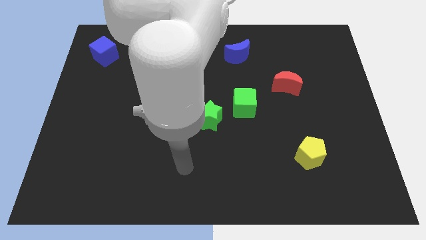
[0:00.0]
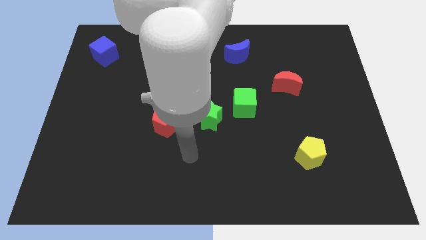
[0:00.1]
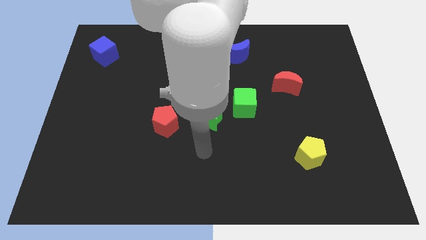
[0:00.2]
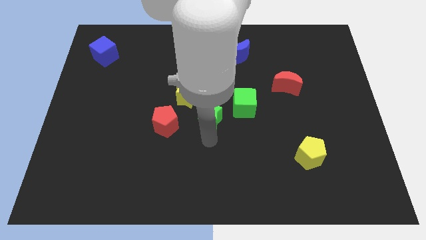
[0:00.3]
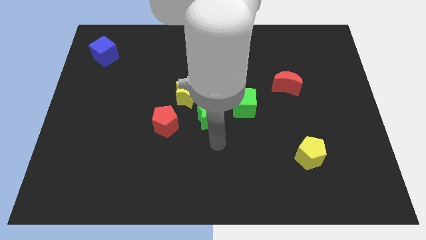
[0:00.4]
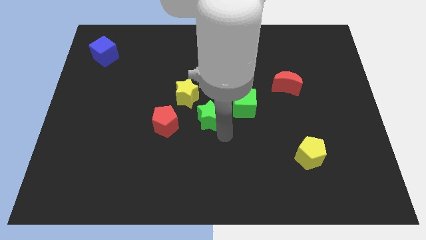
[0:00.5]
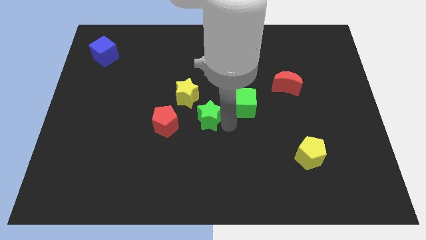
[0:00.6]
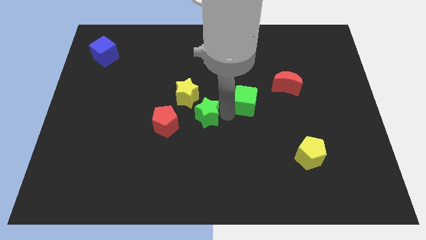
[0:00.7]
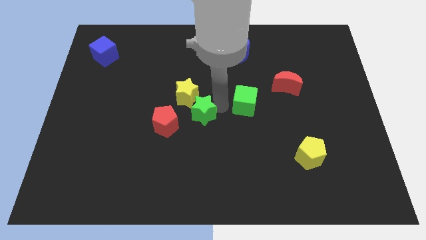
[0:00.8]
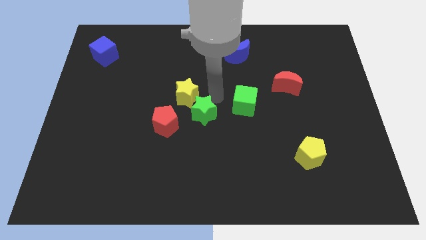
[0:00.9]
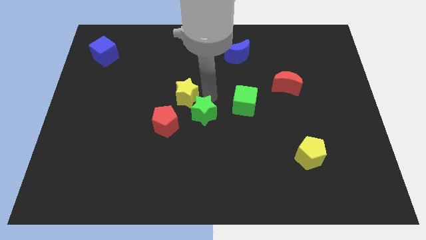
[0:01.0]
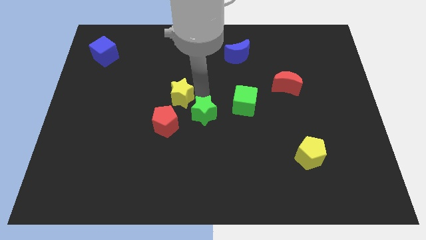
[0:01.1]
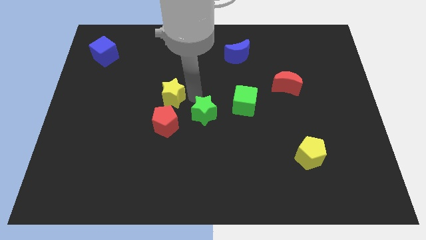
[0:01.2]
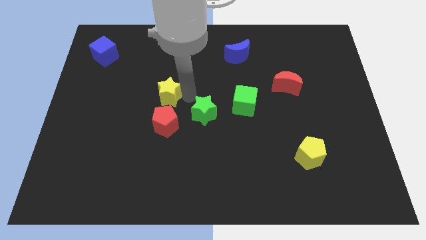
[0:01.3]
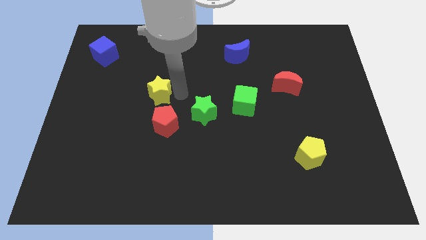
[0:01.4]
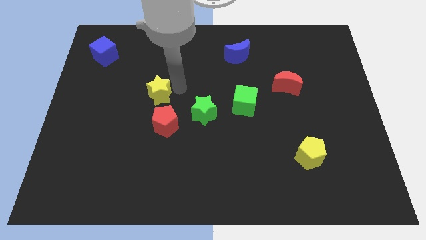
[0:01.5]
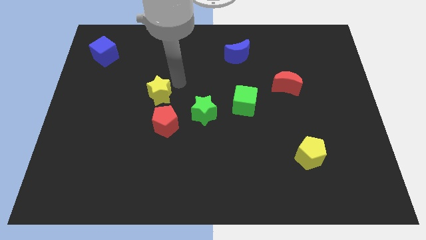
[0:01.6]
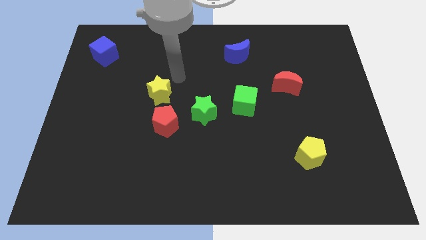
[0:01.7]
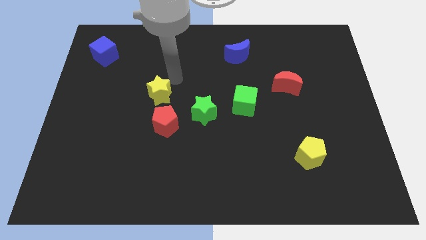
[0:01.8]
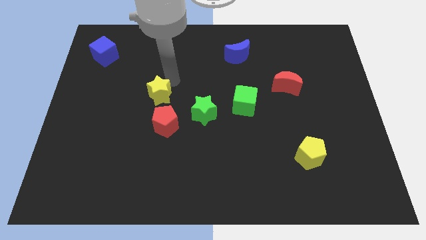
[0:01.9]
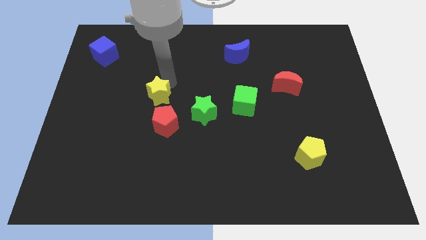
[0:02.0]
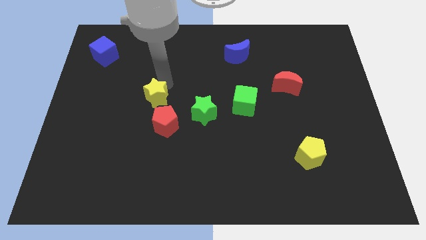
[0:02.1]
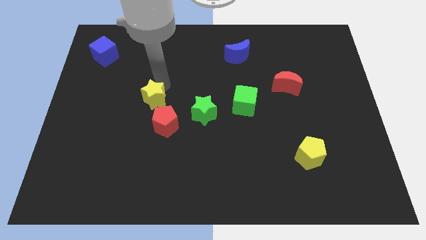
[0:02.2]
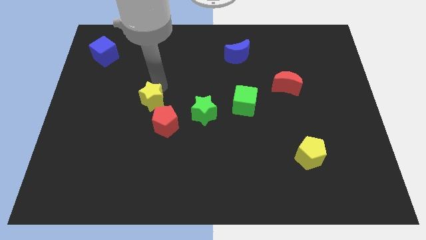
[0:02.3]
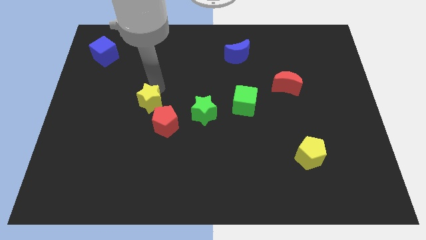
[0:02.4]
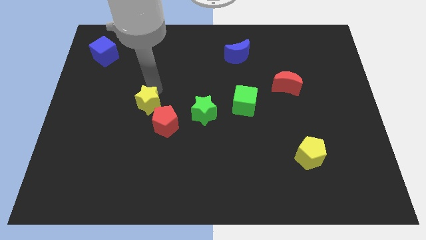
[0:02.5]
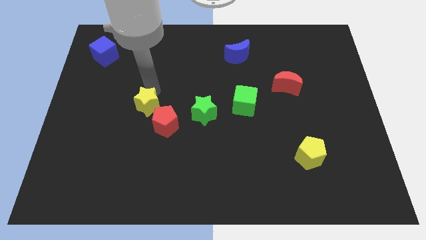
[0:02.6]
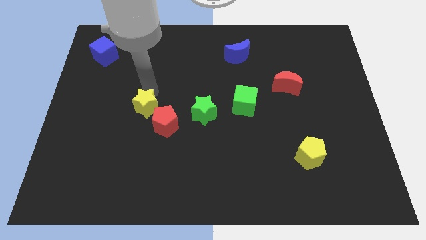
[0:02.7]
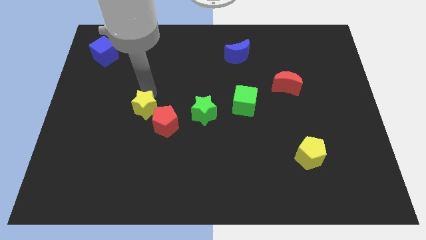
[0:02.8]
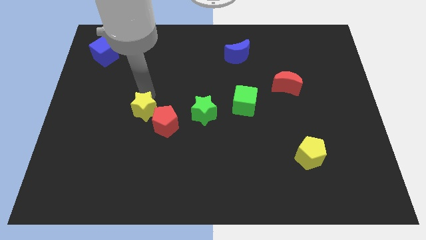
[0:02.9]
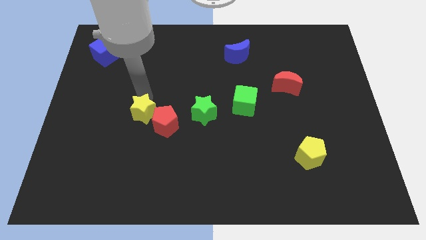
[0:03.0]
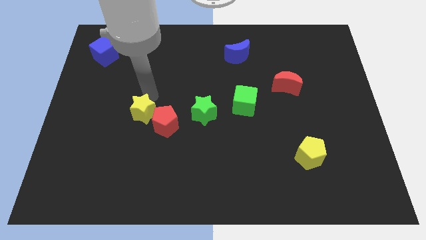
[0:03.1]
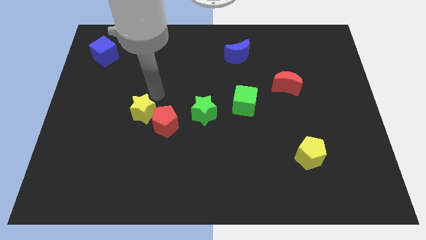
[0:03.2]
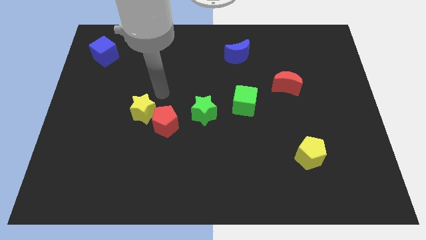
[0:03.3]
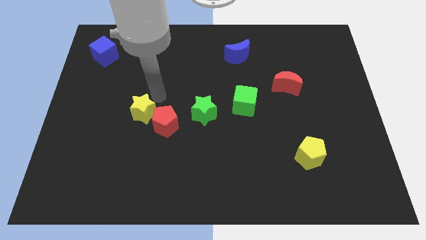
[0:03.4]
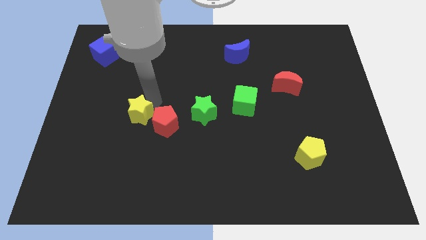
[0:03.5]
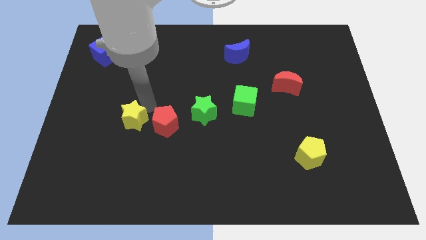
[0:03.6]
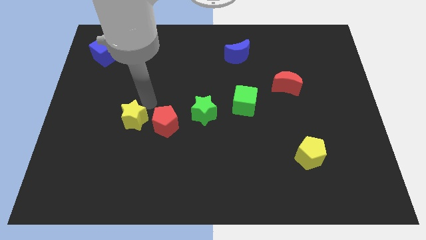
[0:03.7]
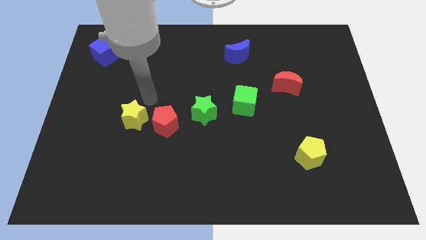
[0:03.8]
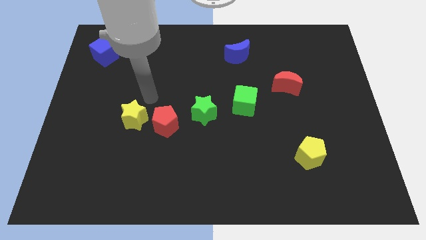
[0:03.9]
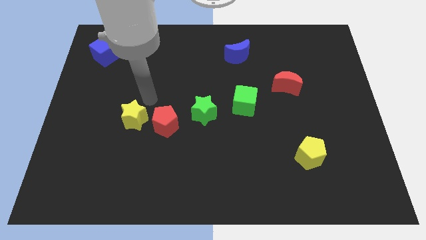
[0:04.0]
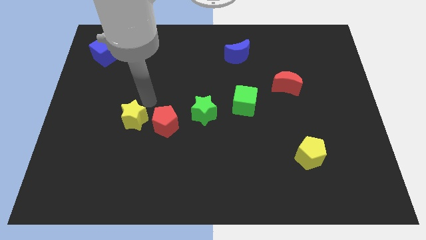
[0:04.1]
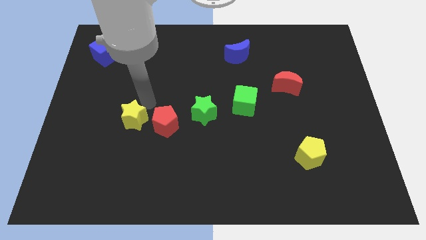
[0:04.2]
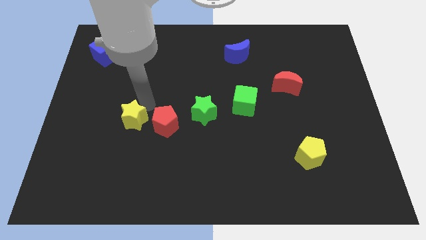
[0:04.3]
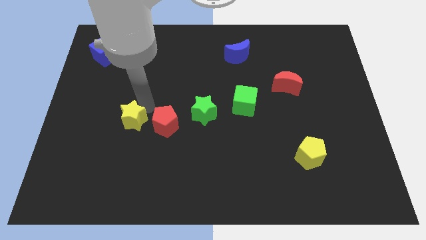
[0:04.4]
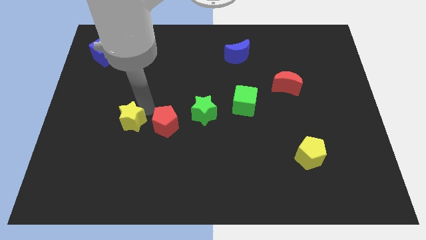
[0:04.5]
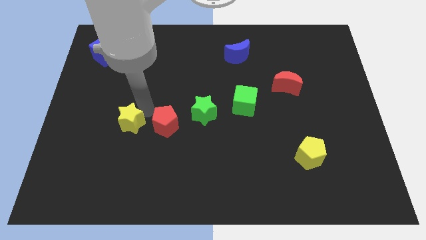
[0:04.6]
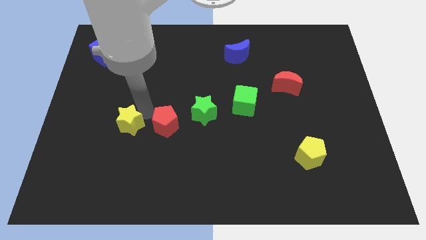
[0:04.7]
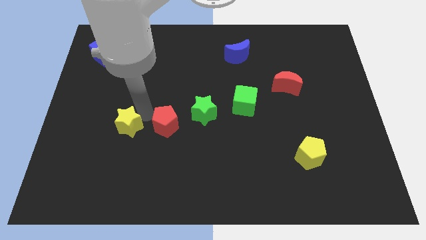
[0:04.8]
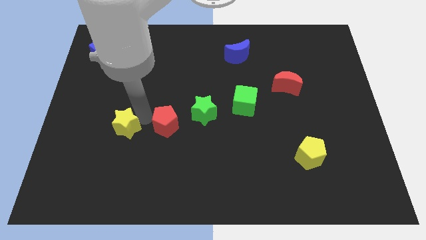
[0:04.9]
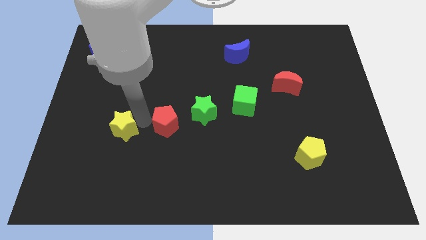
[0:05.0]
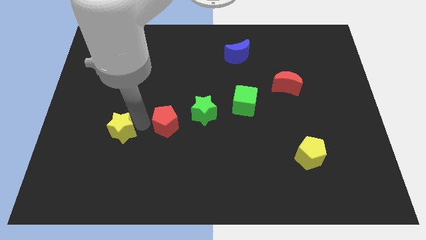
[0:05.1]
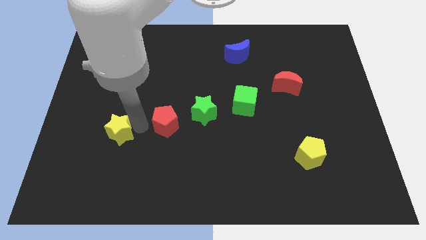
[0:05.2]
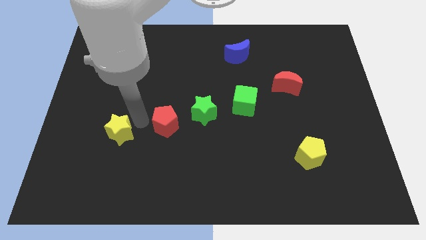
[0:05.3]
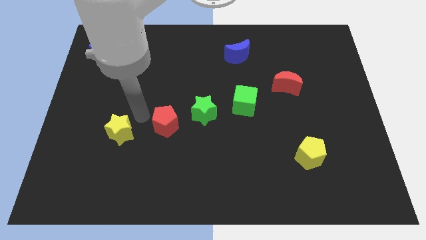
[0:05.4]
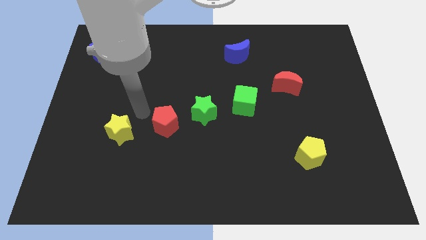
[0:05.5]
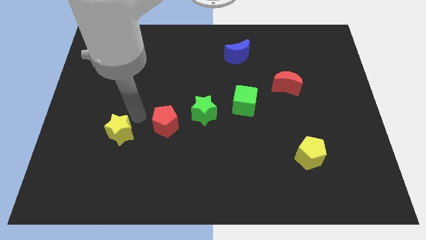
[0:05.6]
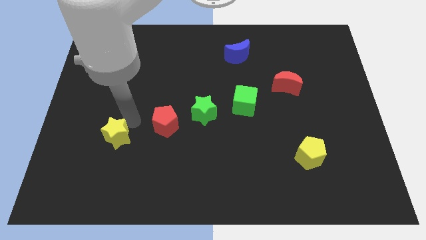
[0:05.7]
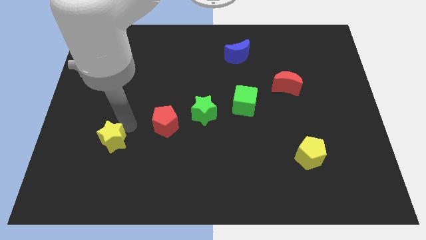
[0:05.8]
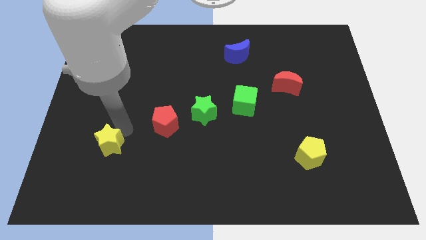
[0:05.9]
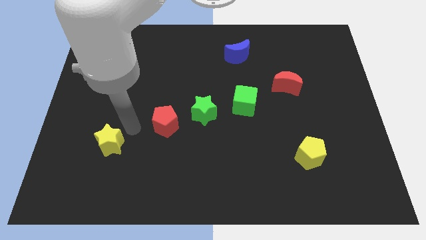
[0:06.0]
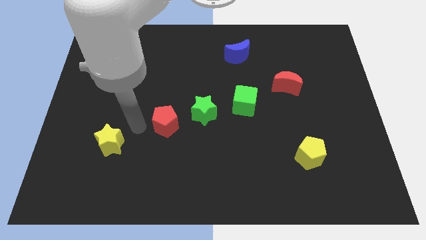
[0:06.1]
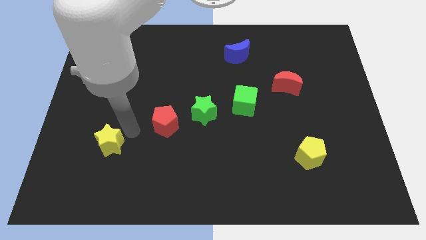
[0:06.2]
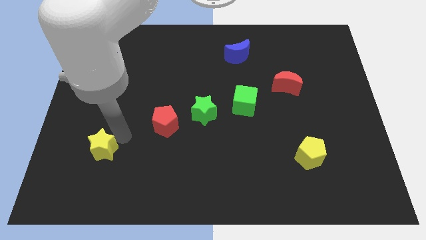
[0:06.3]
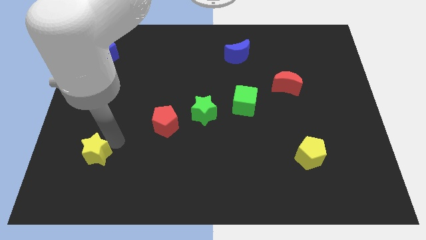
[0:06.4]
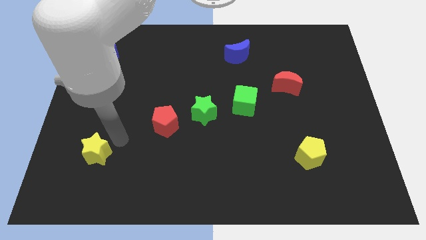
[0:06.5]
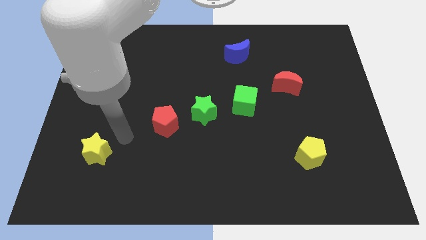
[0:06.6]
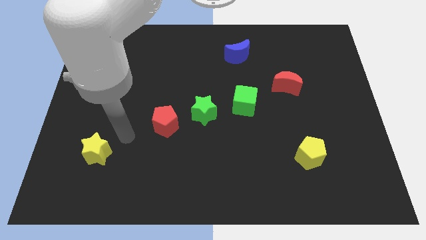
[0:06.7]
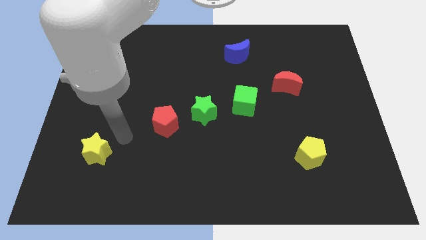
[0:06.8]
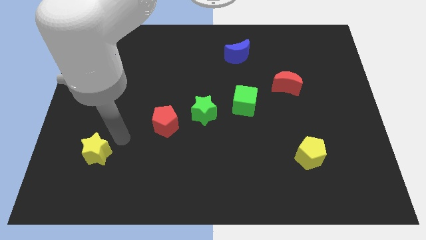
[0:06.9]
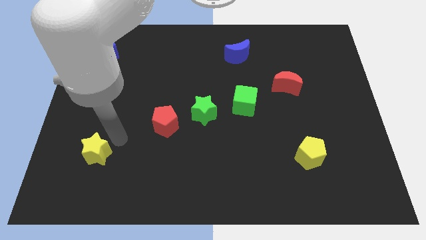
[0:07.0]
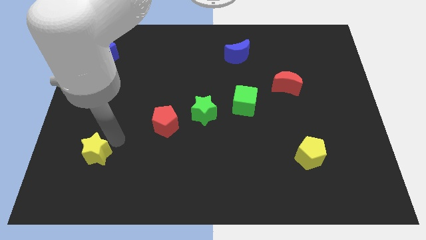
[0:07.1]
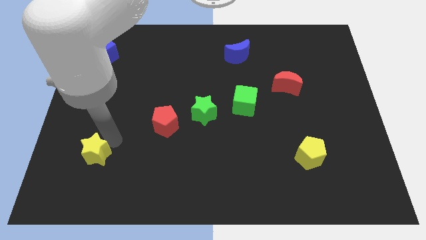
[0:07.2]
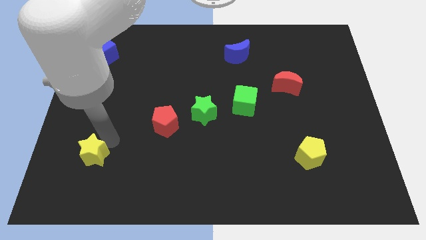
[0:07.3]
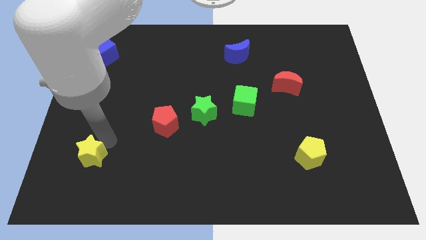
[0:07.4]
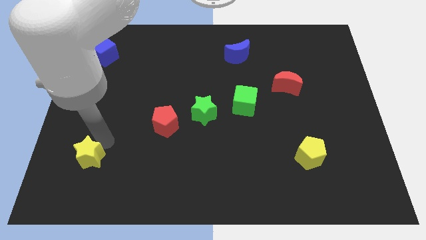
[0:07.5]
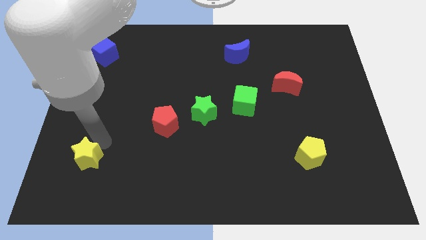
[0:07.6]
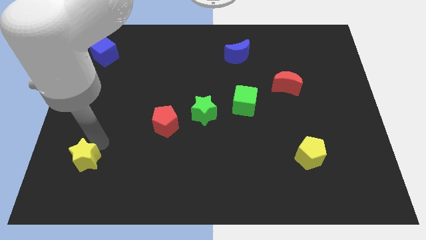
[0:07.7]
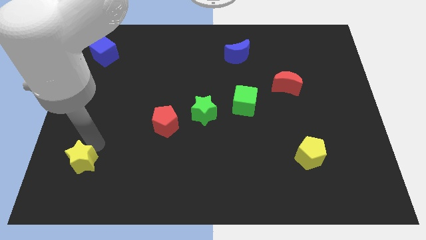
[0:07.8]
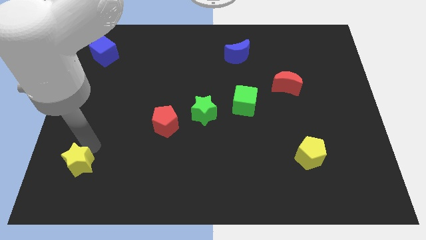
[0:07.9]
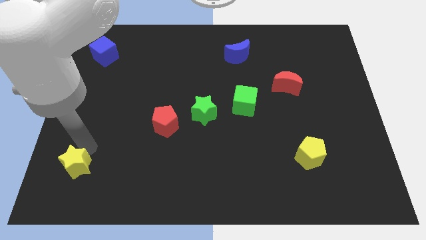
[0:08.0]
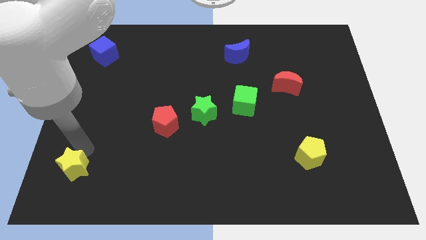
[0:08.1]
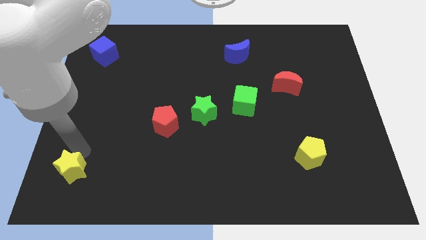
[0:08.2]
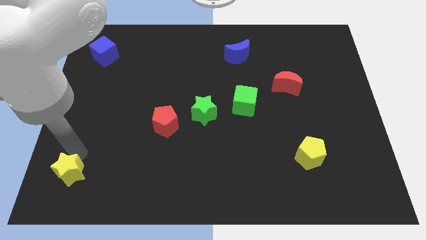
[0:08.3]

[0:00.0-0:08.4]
push the yellow star to the bottom left
